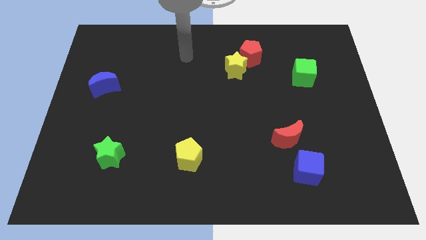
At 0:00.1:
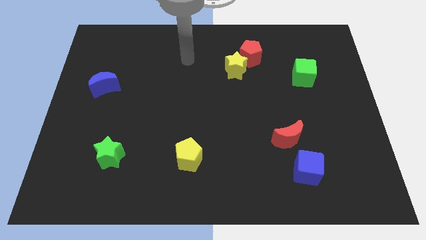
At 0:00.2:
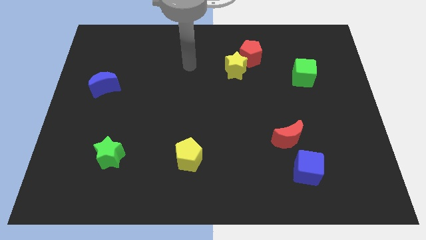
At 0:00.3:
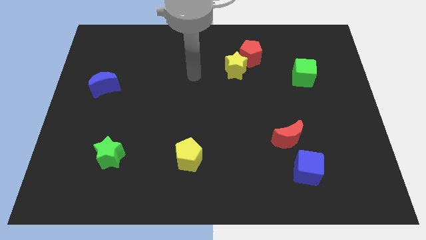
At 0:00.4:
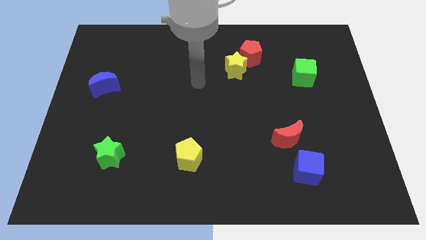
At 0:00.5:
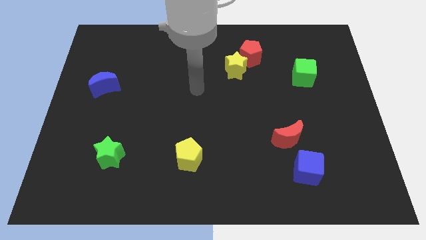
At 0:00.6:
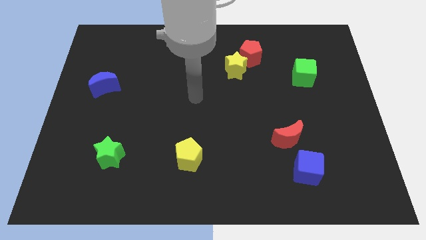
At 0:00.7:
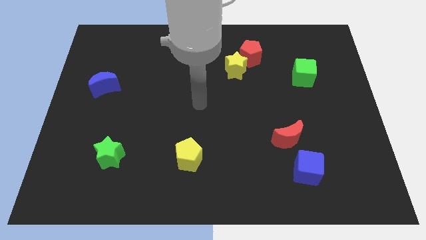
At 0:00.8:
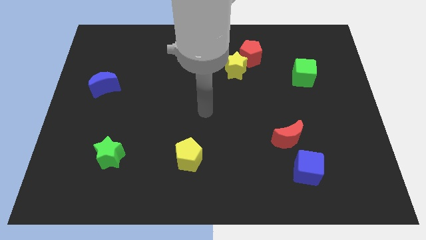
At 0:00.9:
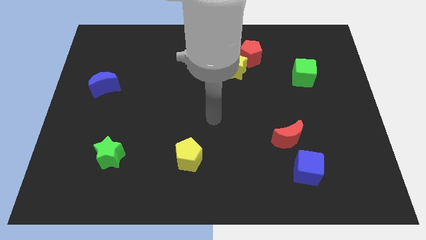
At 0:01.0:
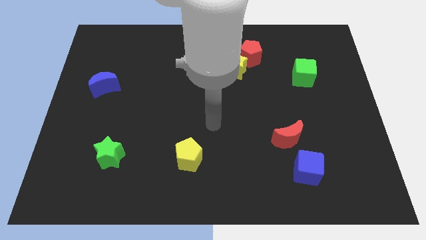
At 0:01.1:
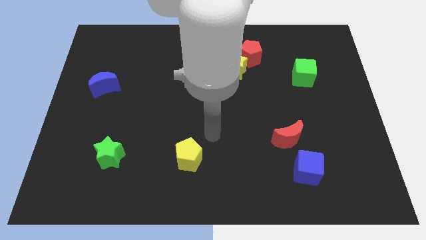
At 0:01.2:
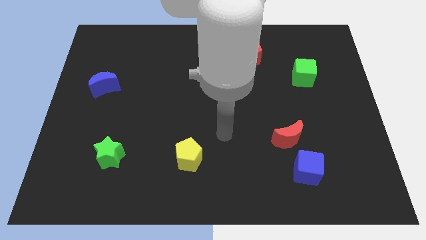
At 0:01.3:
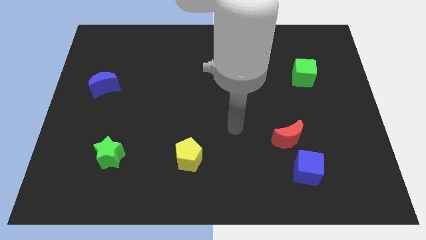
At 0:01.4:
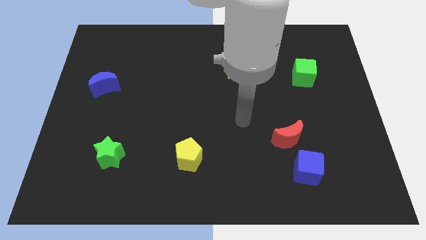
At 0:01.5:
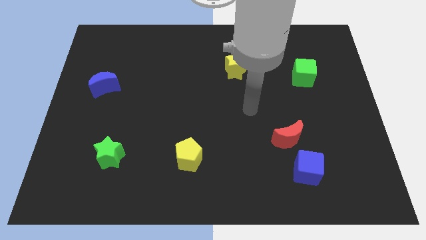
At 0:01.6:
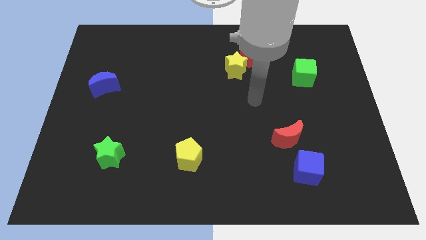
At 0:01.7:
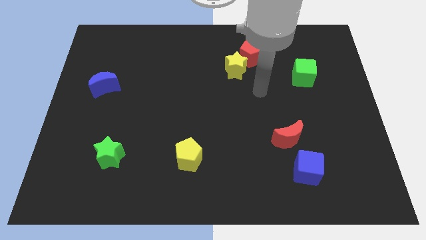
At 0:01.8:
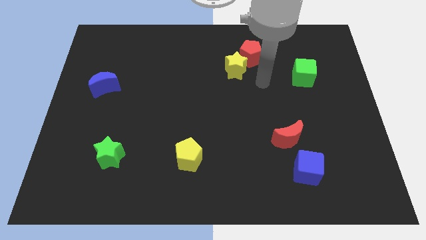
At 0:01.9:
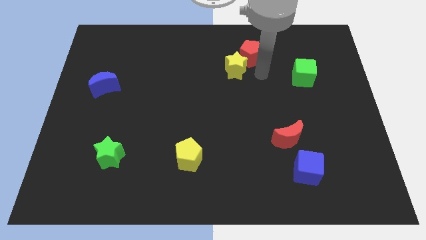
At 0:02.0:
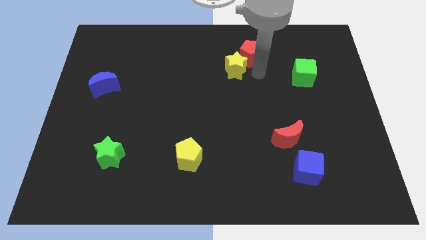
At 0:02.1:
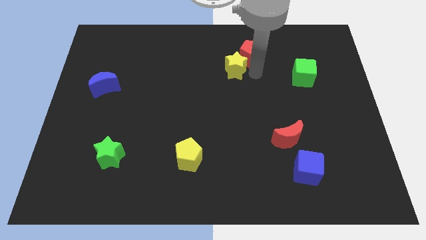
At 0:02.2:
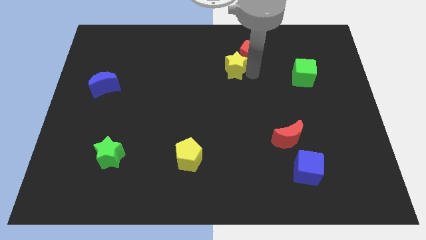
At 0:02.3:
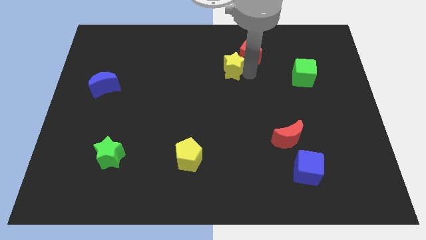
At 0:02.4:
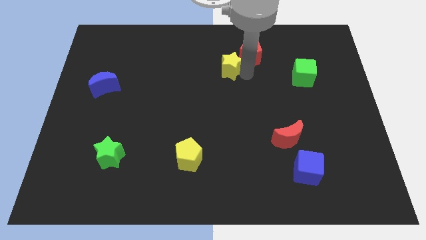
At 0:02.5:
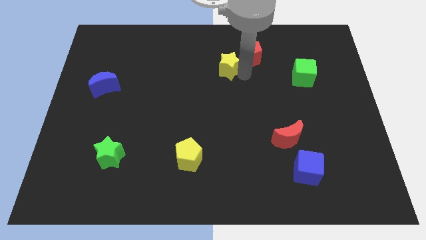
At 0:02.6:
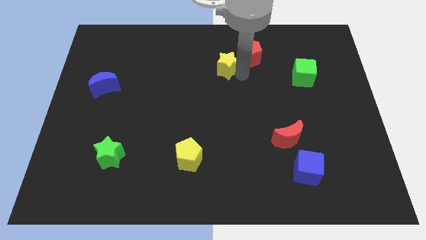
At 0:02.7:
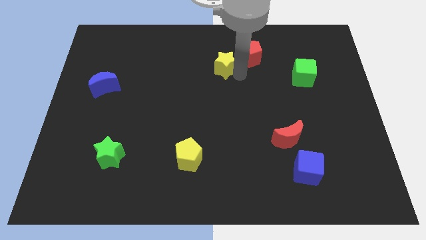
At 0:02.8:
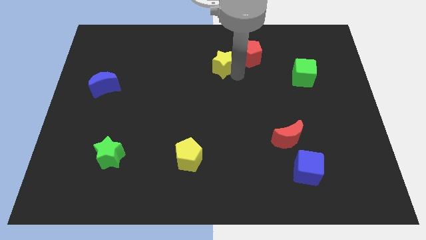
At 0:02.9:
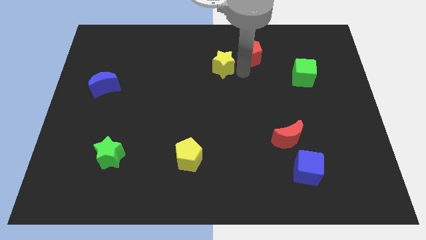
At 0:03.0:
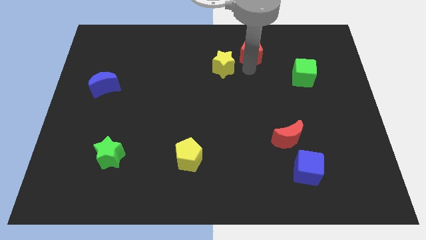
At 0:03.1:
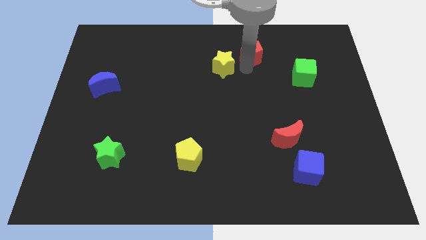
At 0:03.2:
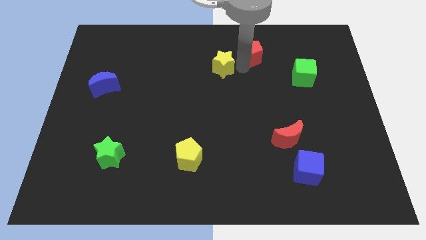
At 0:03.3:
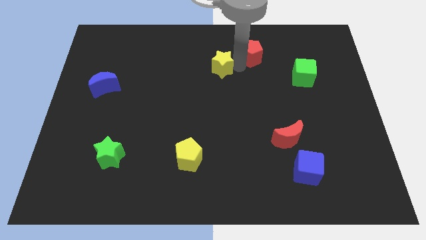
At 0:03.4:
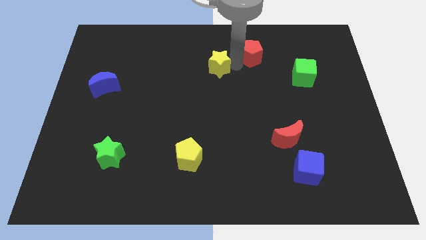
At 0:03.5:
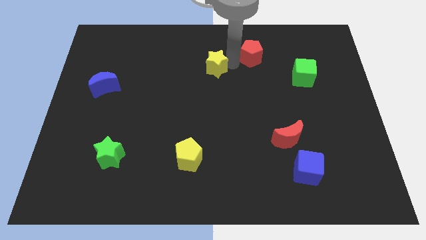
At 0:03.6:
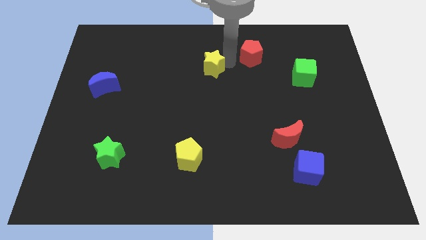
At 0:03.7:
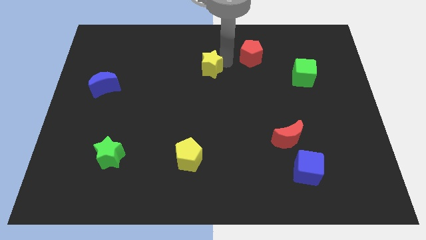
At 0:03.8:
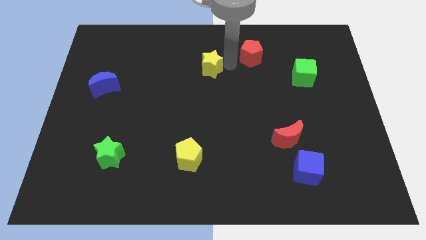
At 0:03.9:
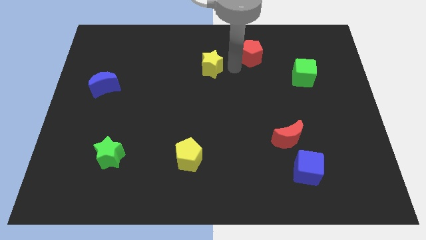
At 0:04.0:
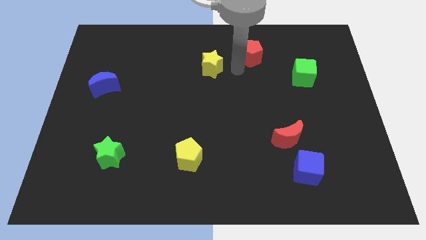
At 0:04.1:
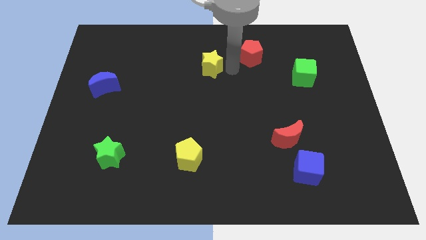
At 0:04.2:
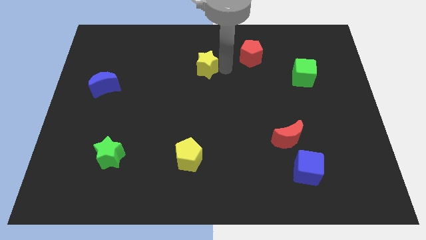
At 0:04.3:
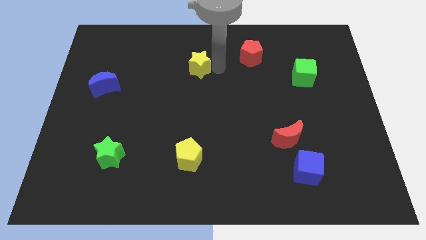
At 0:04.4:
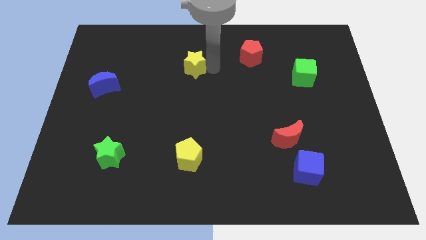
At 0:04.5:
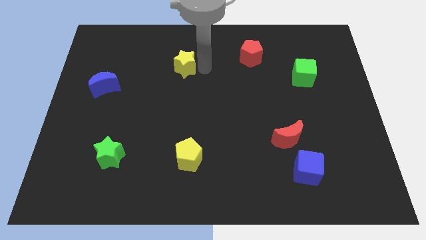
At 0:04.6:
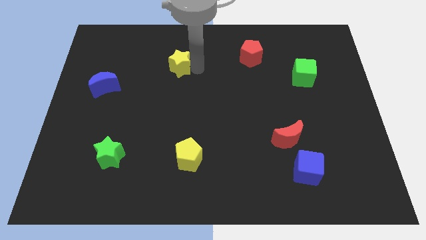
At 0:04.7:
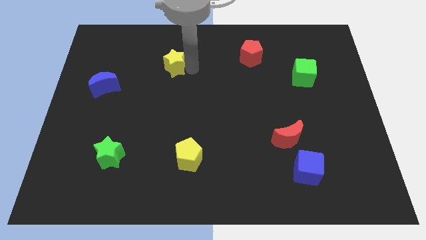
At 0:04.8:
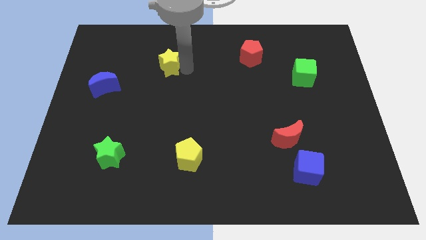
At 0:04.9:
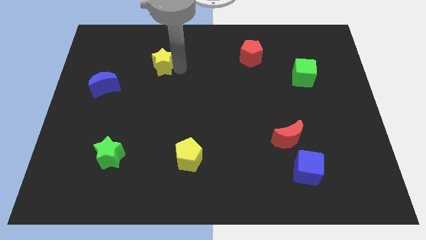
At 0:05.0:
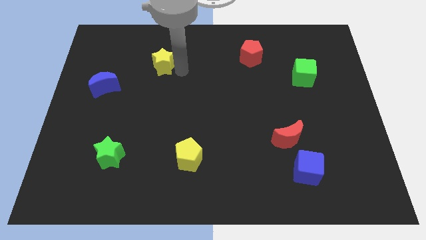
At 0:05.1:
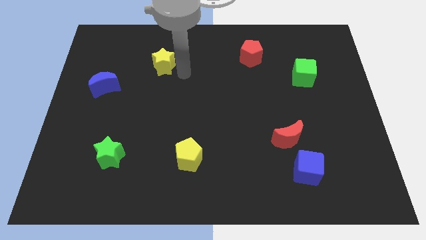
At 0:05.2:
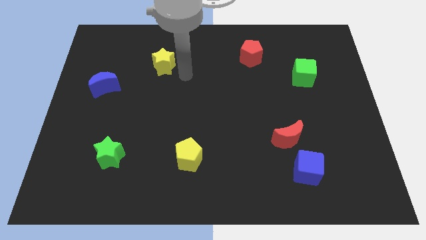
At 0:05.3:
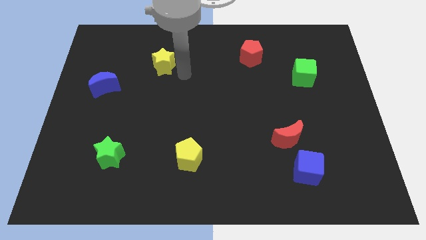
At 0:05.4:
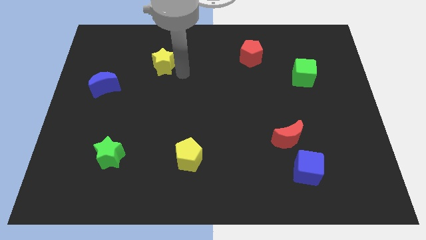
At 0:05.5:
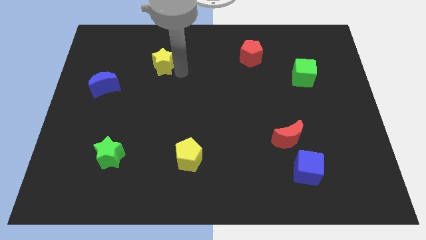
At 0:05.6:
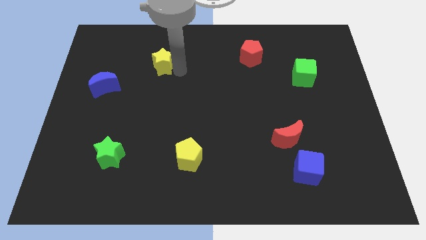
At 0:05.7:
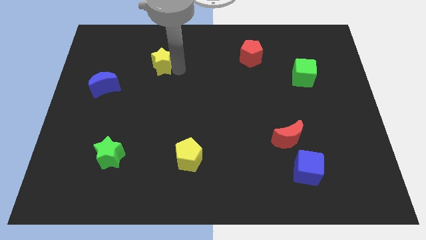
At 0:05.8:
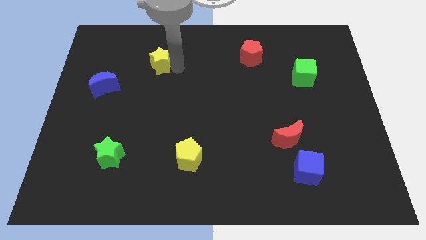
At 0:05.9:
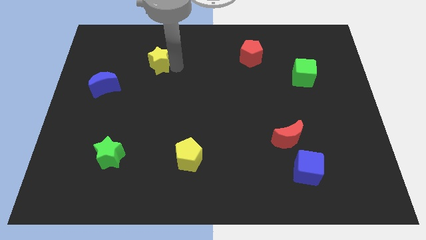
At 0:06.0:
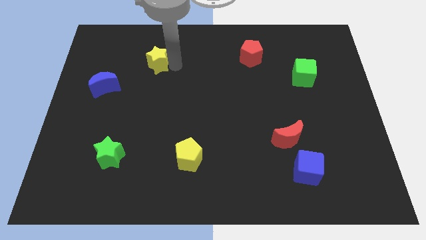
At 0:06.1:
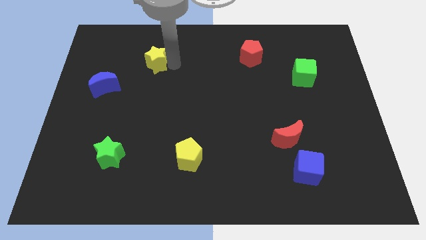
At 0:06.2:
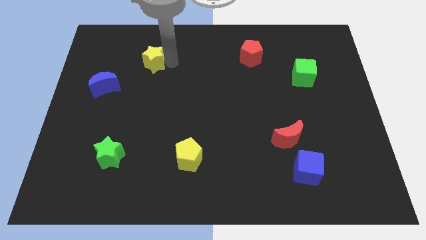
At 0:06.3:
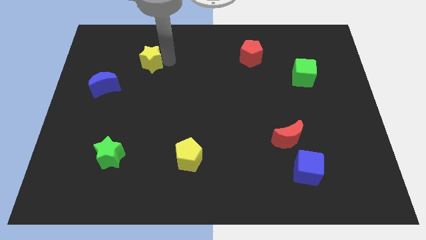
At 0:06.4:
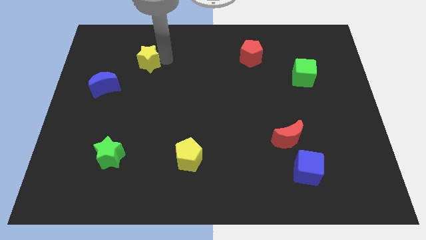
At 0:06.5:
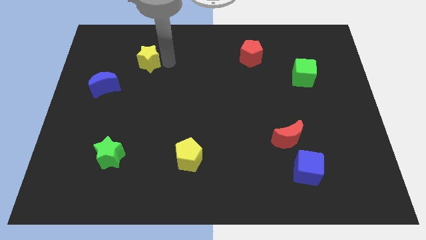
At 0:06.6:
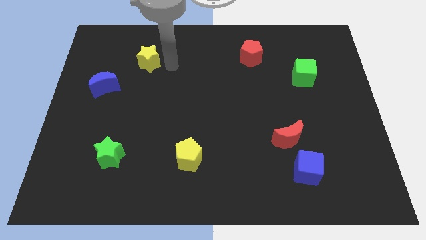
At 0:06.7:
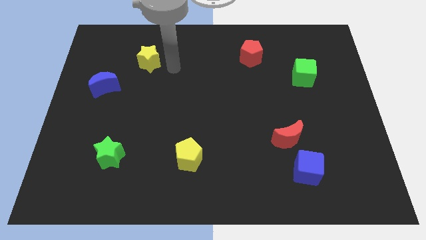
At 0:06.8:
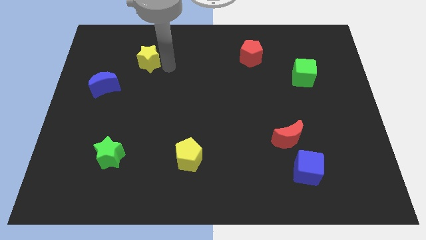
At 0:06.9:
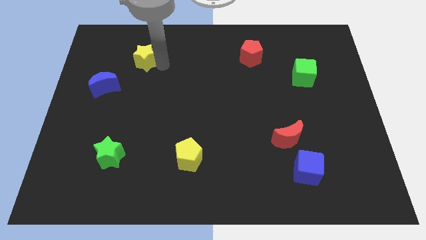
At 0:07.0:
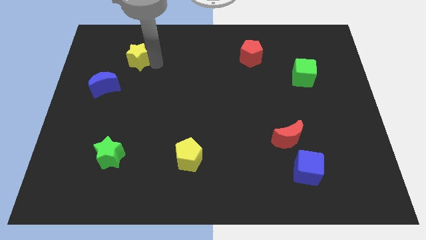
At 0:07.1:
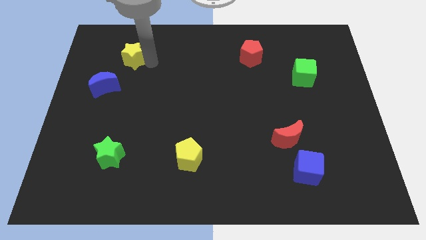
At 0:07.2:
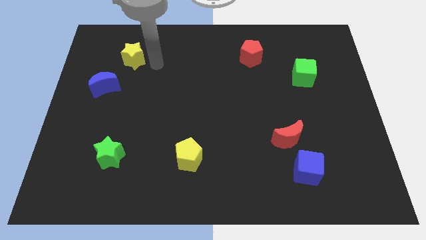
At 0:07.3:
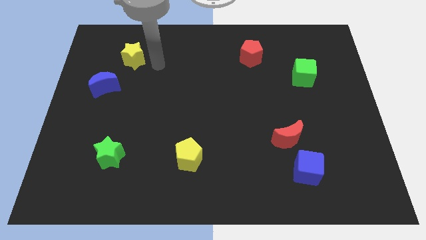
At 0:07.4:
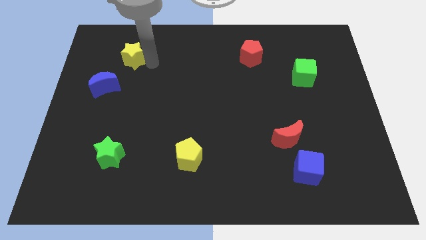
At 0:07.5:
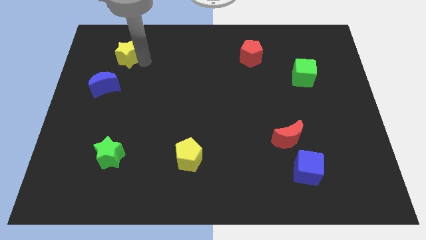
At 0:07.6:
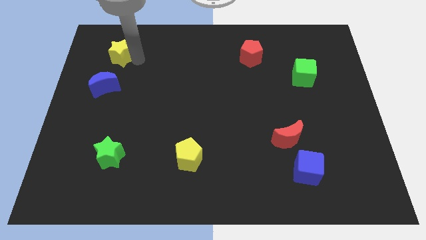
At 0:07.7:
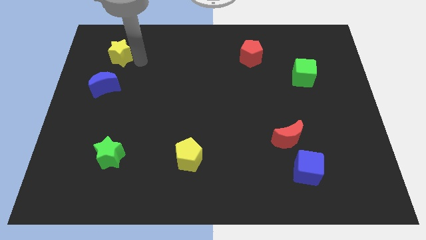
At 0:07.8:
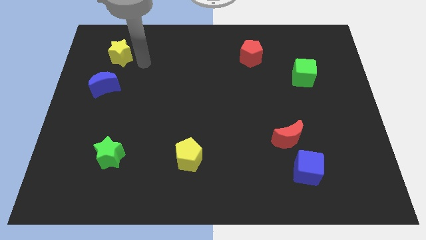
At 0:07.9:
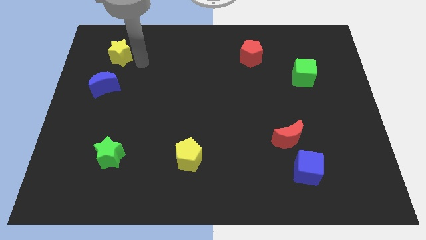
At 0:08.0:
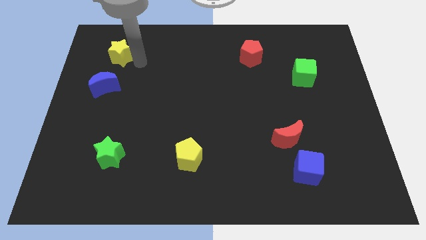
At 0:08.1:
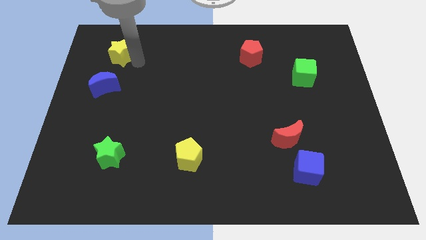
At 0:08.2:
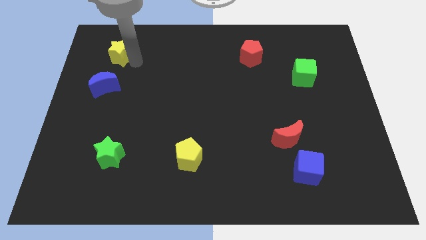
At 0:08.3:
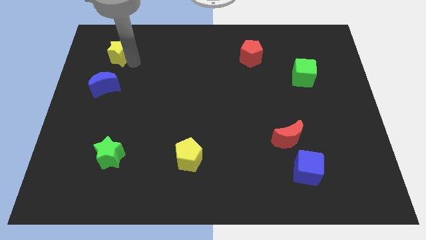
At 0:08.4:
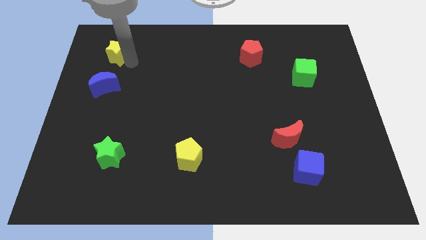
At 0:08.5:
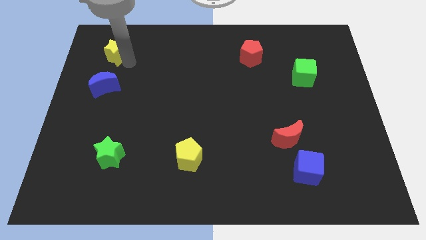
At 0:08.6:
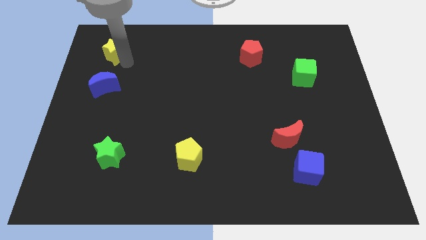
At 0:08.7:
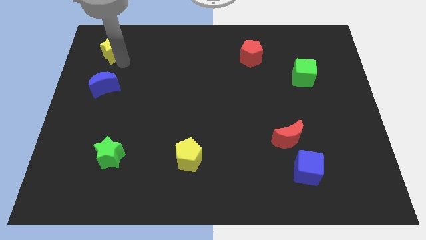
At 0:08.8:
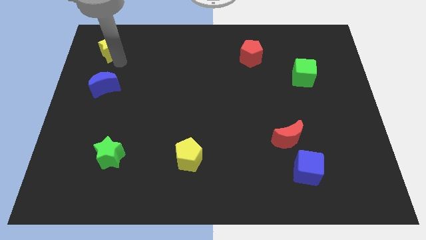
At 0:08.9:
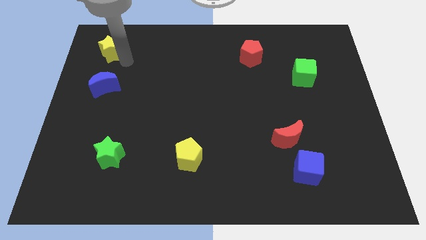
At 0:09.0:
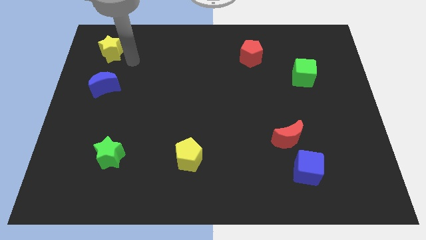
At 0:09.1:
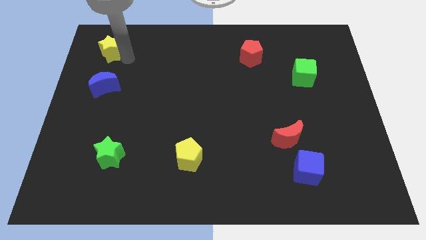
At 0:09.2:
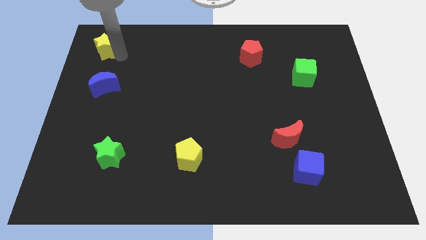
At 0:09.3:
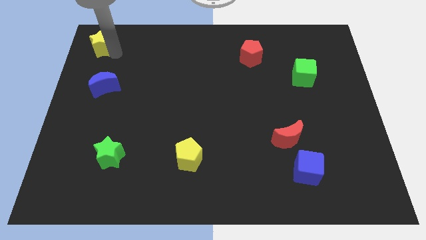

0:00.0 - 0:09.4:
move the yellow star to the top left of the board
